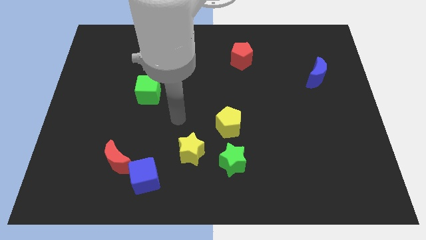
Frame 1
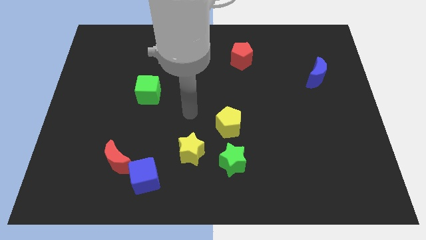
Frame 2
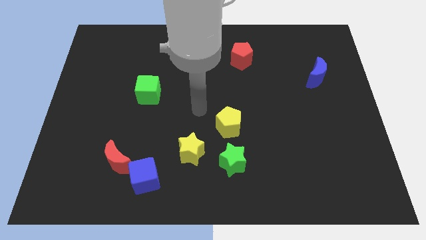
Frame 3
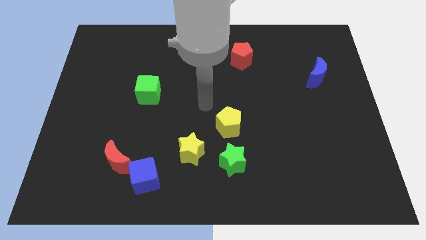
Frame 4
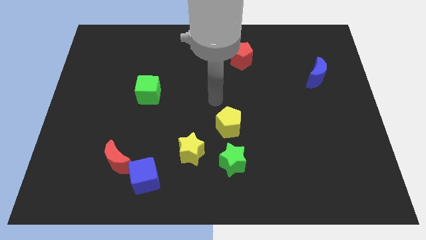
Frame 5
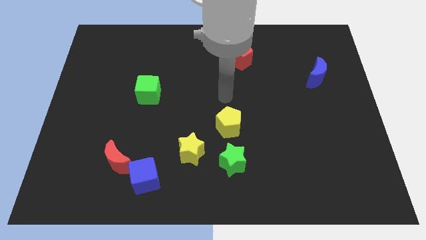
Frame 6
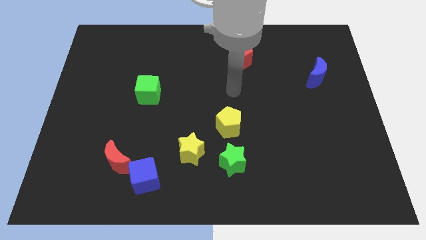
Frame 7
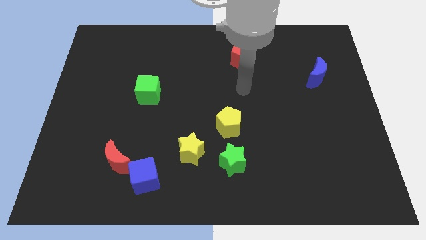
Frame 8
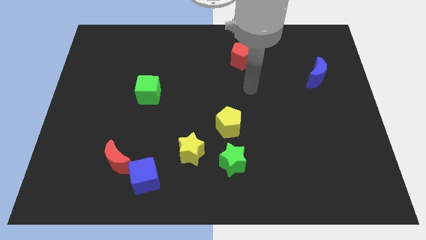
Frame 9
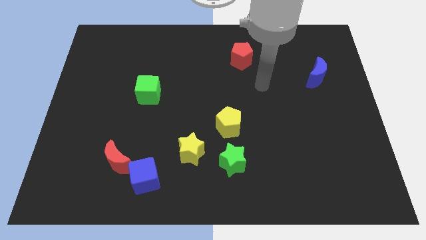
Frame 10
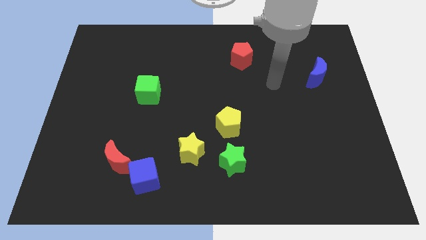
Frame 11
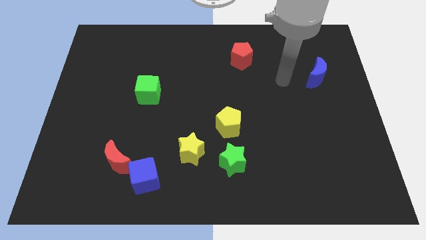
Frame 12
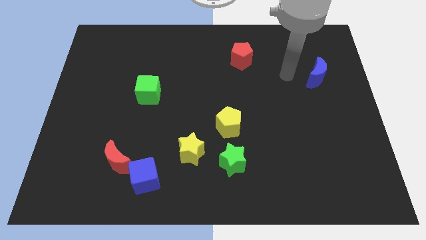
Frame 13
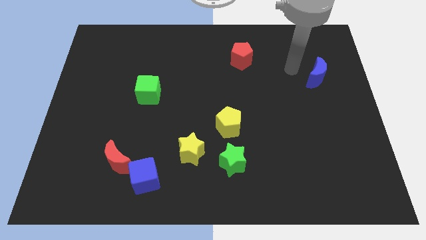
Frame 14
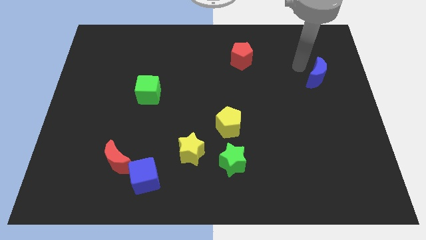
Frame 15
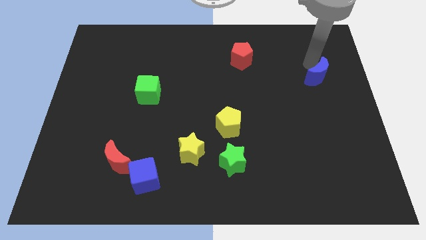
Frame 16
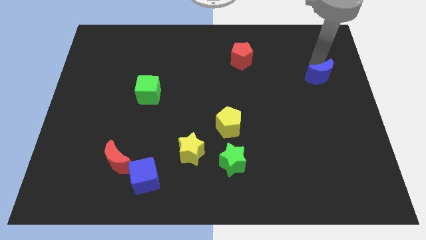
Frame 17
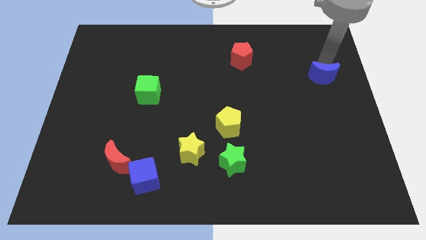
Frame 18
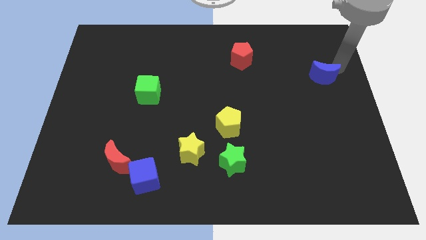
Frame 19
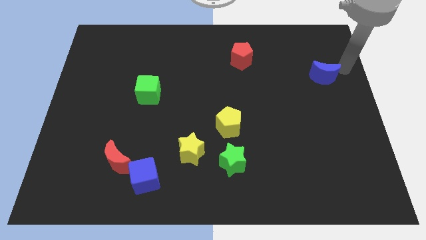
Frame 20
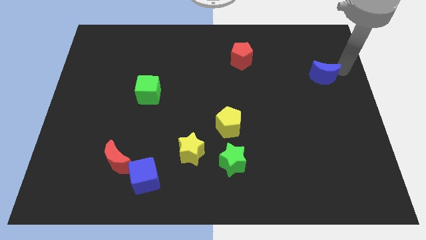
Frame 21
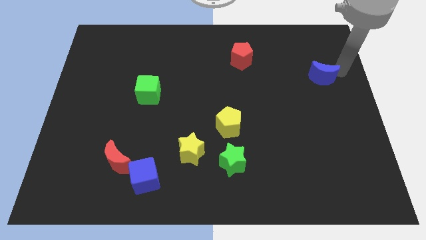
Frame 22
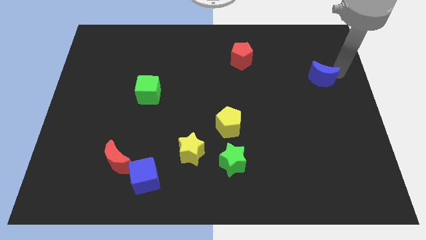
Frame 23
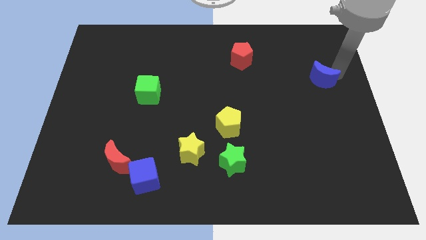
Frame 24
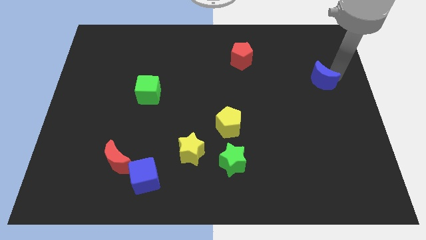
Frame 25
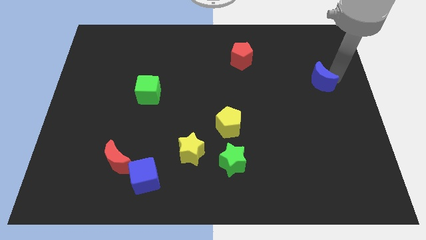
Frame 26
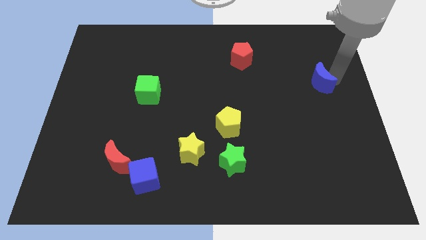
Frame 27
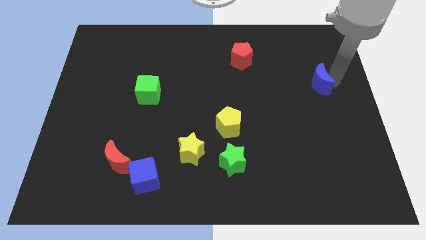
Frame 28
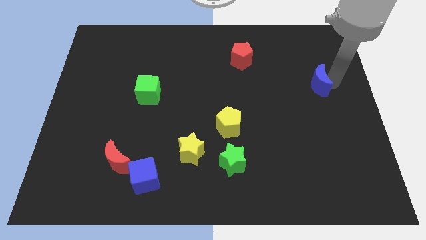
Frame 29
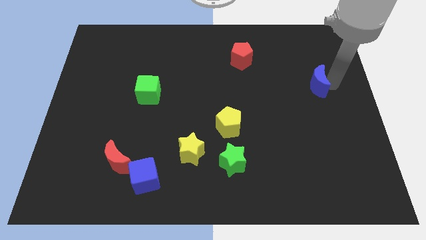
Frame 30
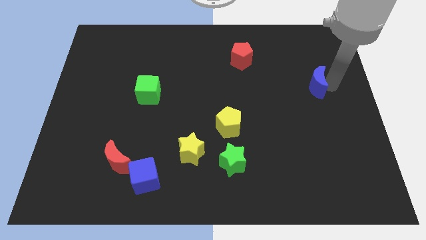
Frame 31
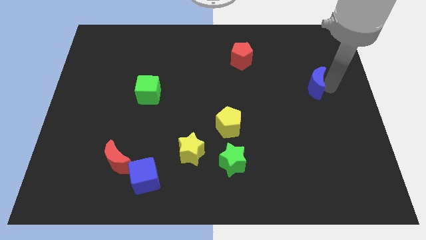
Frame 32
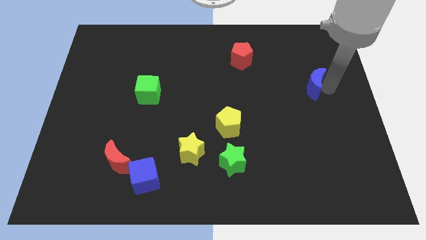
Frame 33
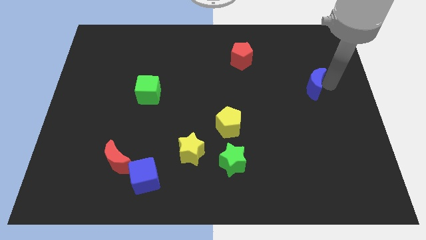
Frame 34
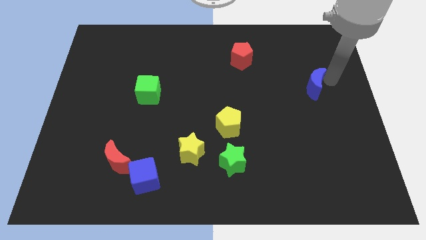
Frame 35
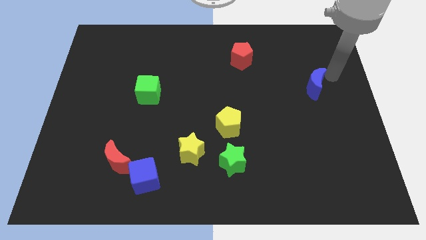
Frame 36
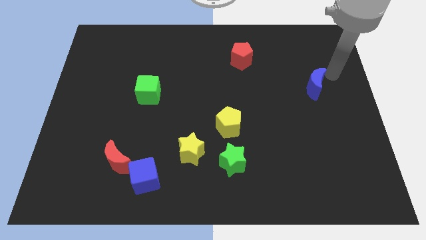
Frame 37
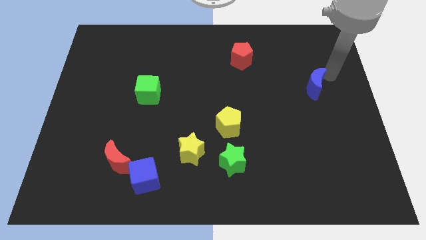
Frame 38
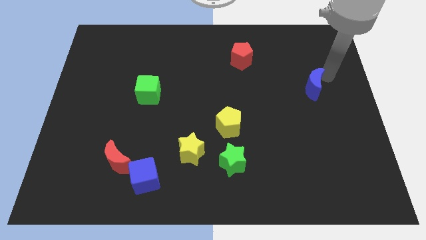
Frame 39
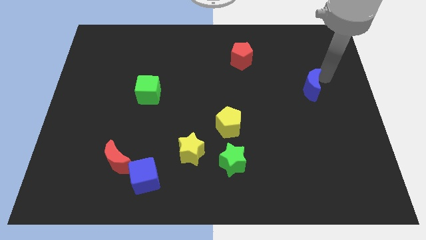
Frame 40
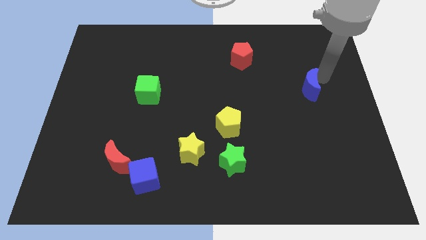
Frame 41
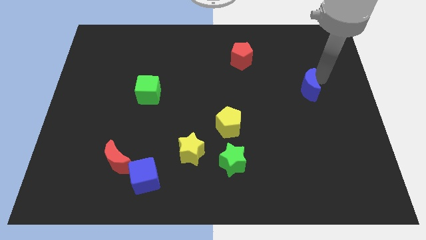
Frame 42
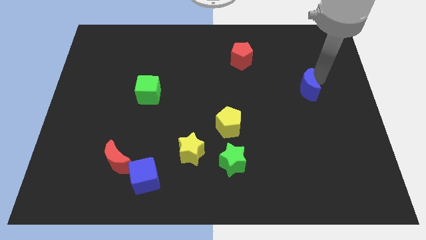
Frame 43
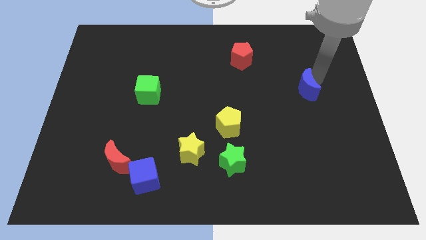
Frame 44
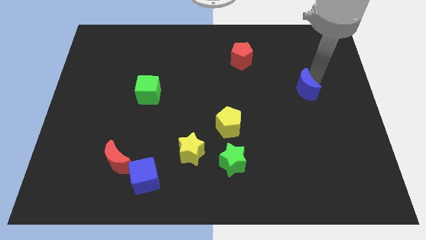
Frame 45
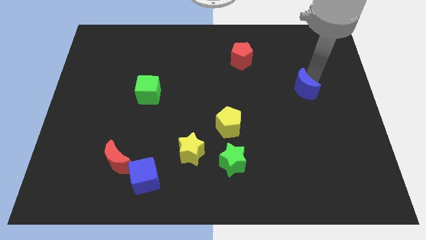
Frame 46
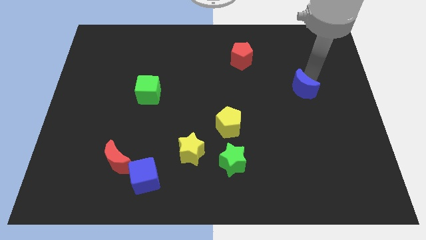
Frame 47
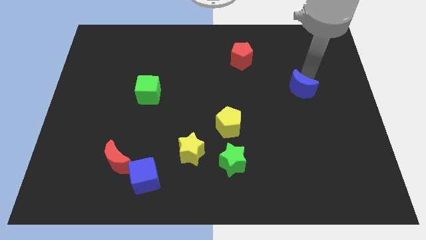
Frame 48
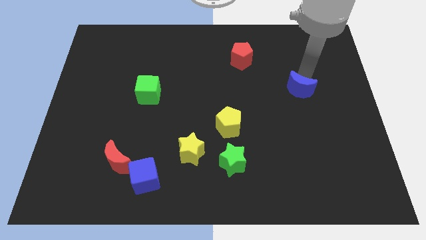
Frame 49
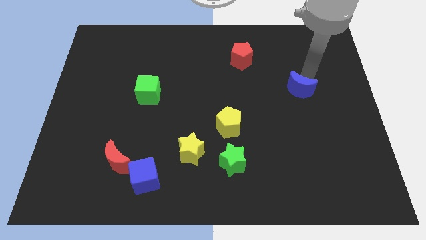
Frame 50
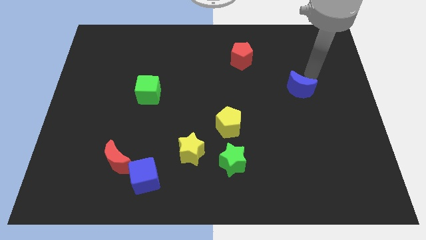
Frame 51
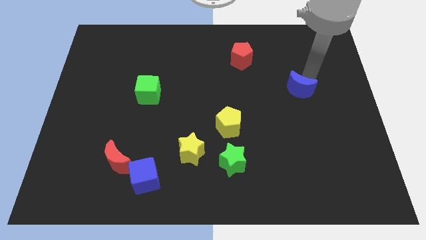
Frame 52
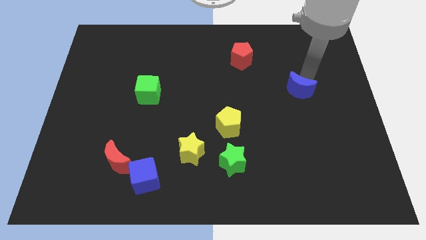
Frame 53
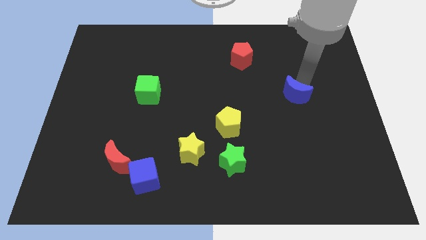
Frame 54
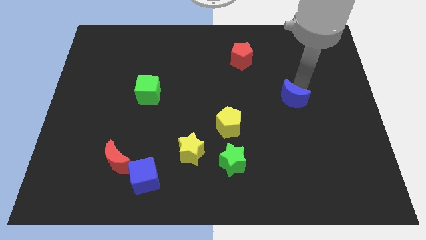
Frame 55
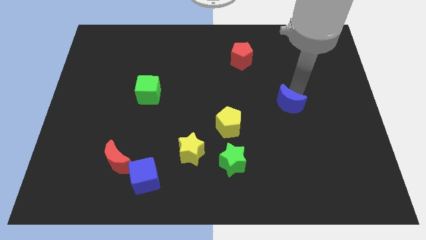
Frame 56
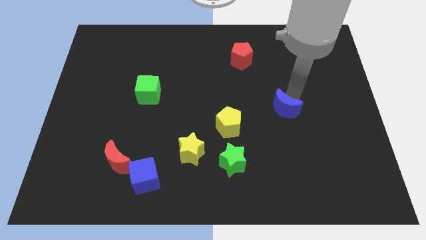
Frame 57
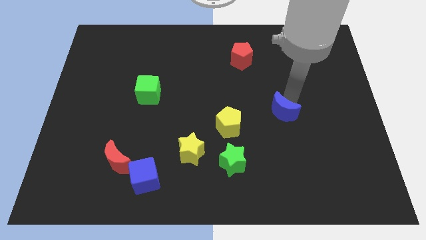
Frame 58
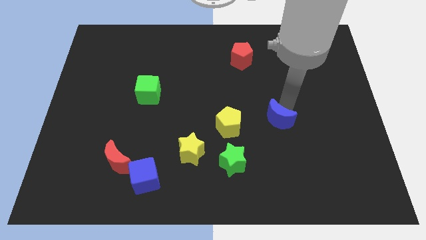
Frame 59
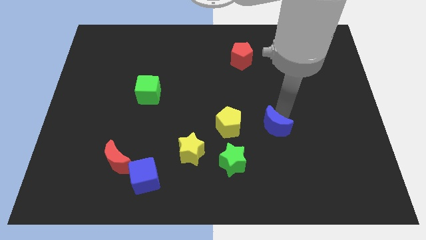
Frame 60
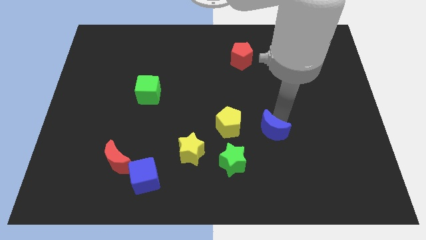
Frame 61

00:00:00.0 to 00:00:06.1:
put the blue moon to the top right of the green star

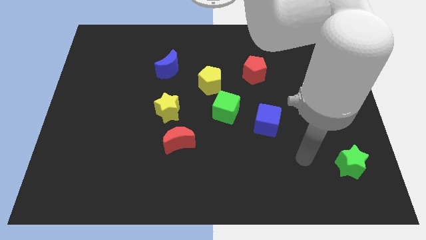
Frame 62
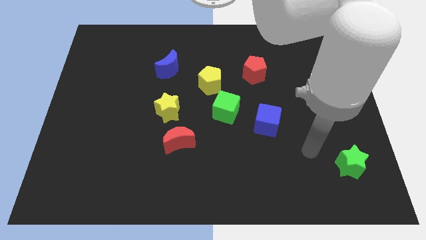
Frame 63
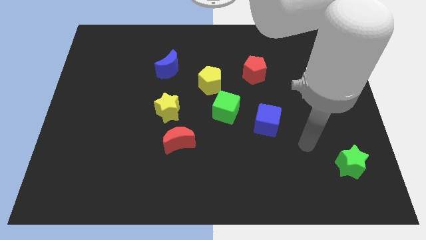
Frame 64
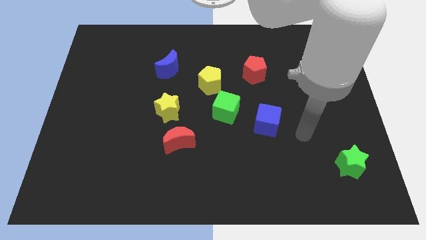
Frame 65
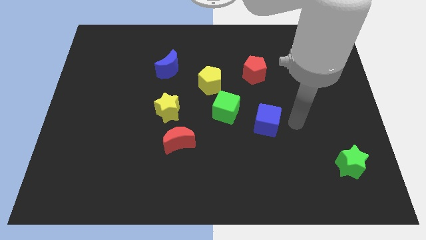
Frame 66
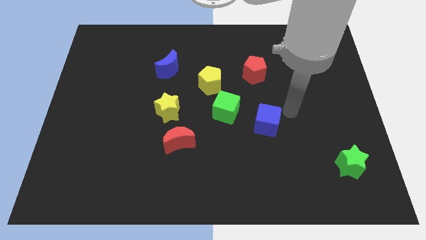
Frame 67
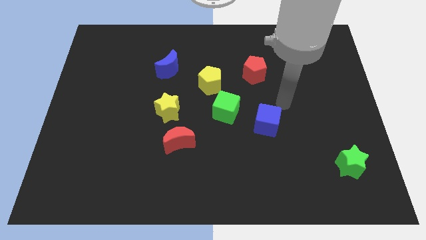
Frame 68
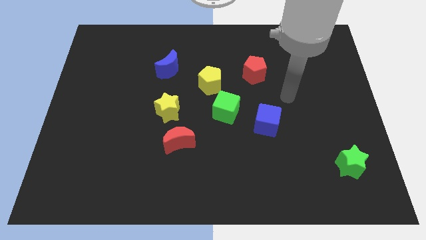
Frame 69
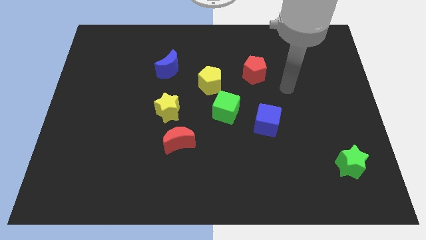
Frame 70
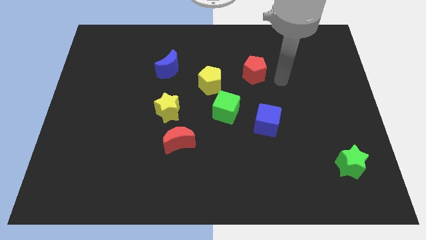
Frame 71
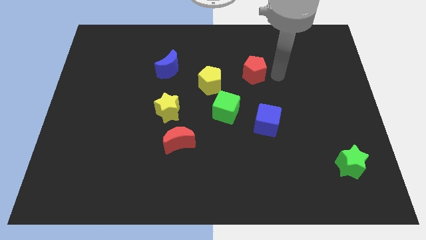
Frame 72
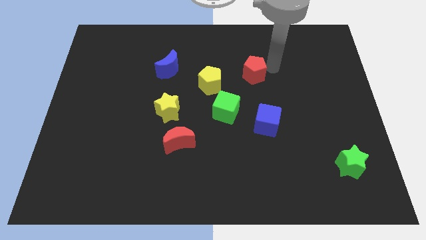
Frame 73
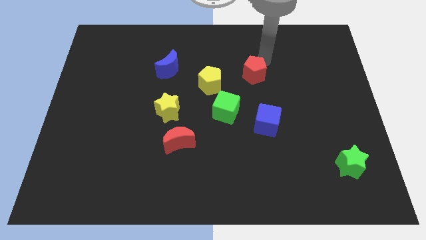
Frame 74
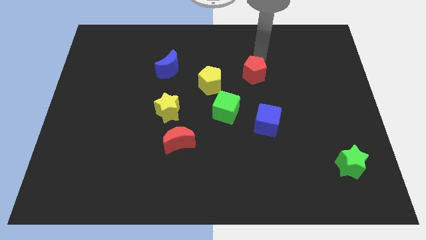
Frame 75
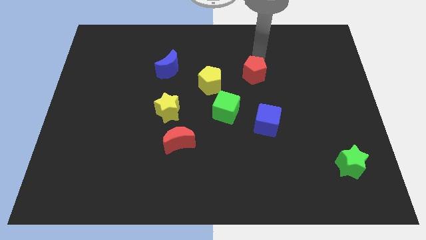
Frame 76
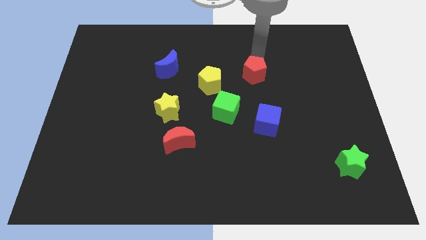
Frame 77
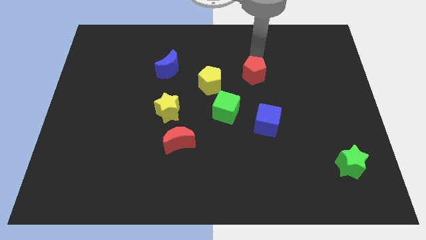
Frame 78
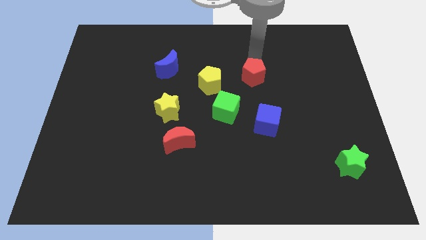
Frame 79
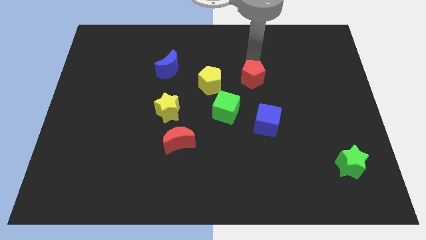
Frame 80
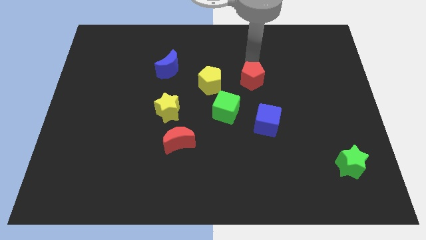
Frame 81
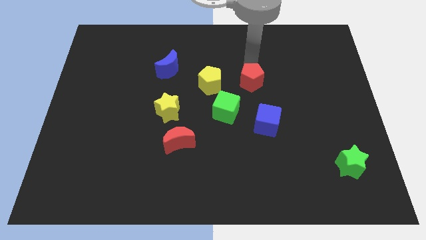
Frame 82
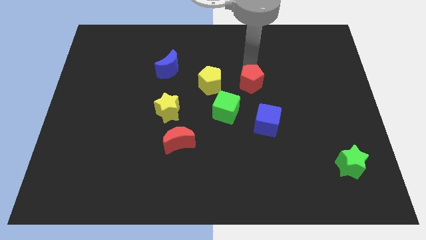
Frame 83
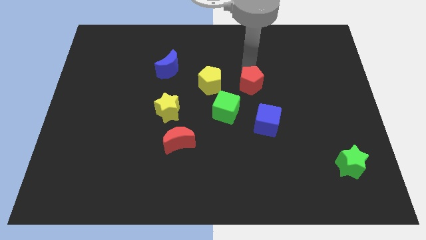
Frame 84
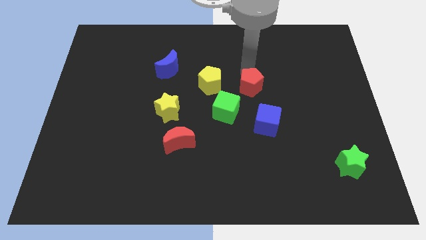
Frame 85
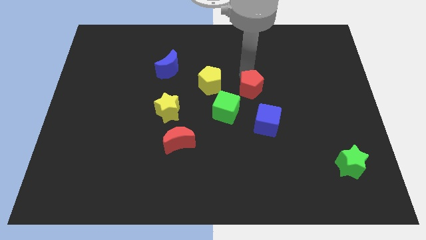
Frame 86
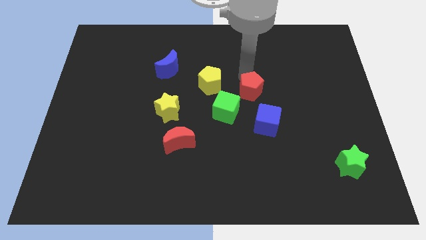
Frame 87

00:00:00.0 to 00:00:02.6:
slide the red pentagon to the top left of the blue cube
